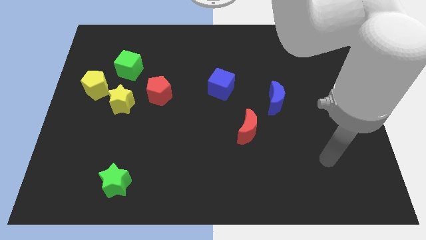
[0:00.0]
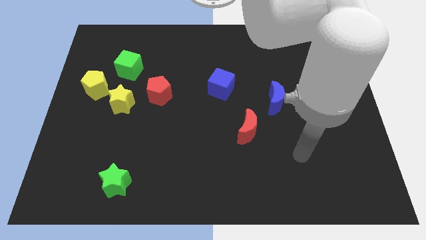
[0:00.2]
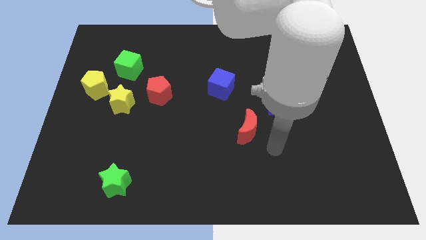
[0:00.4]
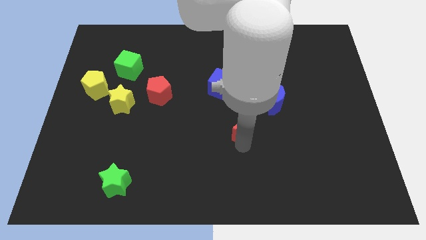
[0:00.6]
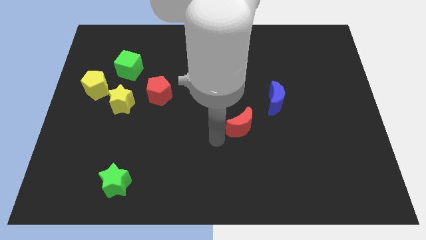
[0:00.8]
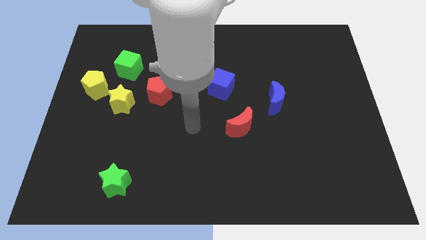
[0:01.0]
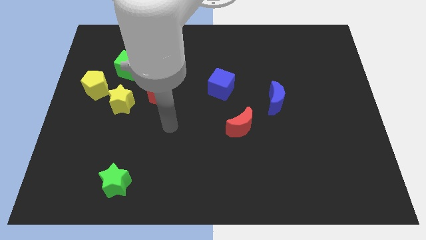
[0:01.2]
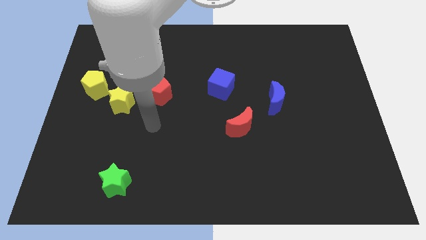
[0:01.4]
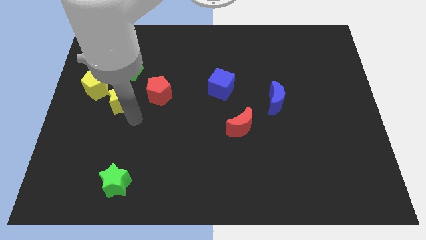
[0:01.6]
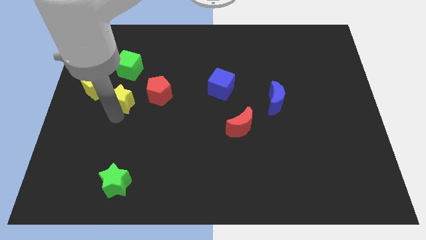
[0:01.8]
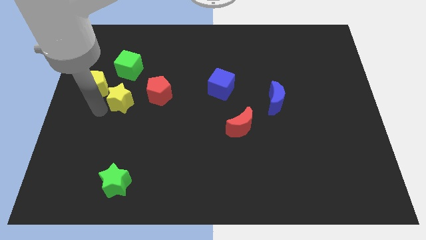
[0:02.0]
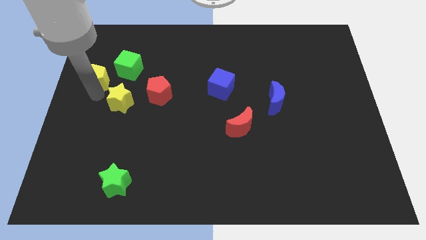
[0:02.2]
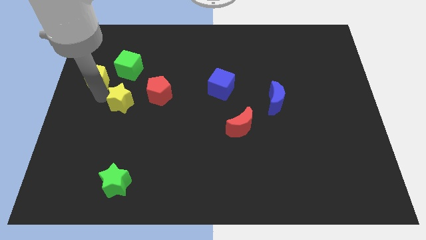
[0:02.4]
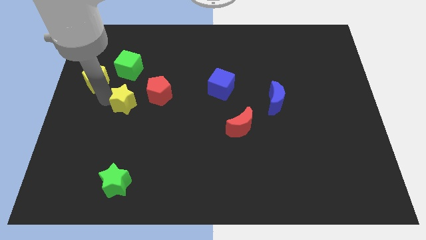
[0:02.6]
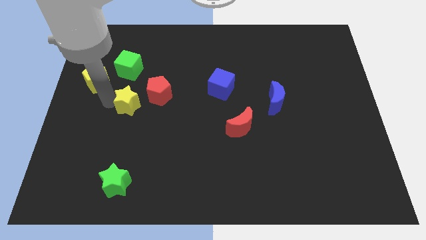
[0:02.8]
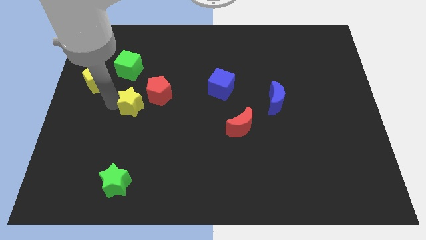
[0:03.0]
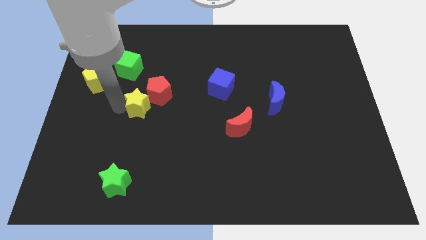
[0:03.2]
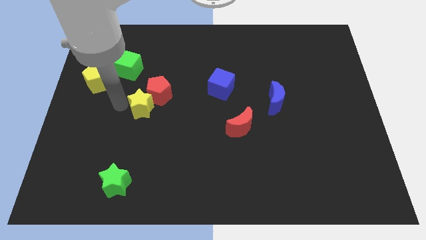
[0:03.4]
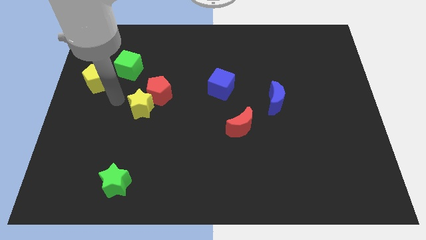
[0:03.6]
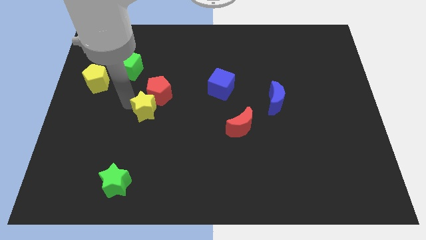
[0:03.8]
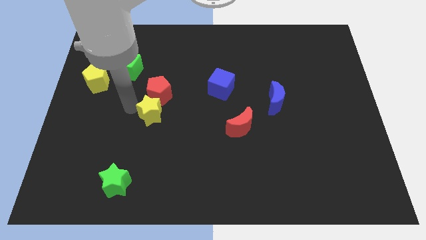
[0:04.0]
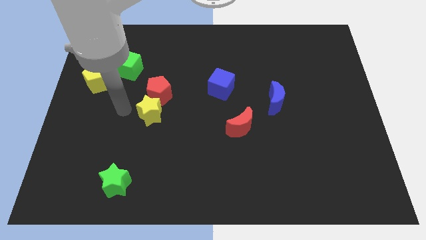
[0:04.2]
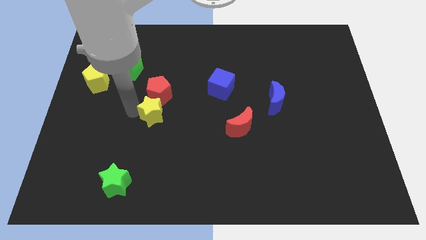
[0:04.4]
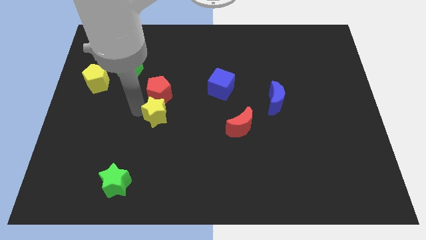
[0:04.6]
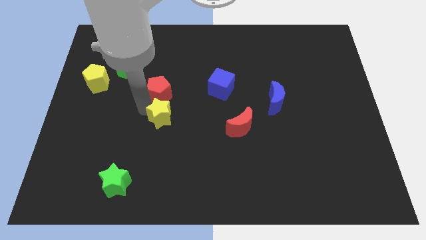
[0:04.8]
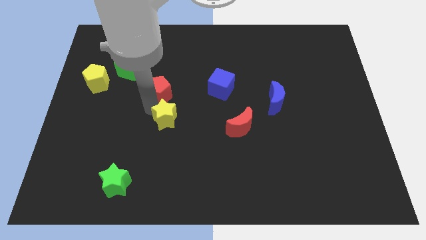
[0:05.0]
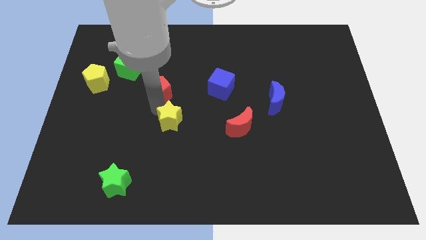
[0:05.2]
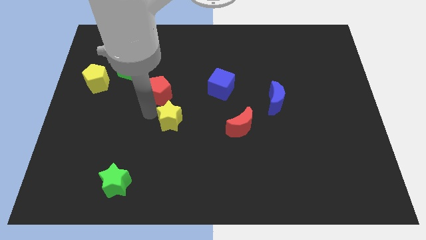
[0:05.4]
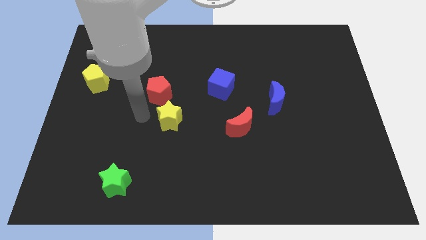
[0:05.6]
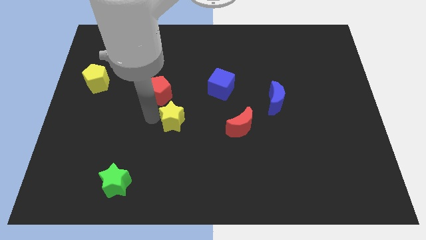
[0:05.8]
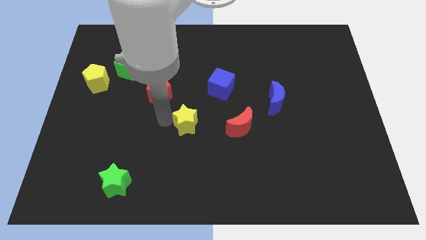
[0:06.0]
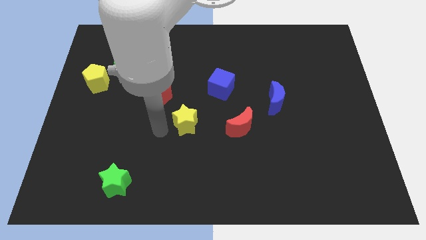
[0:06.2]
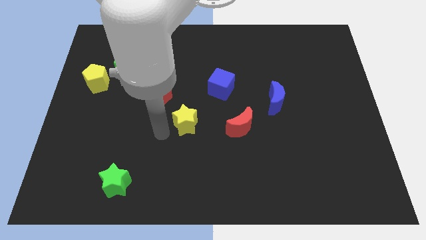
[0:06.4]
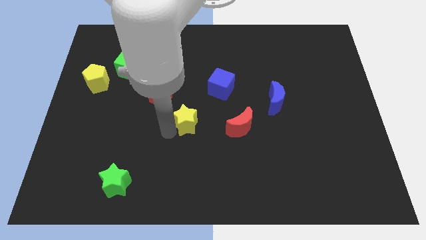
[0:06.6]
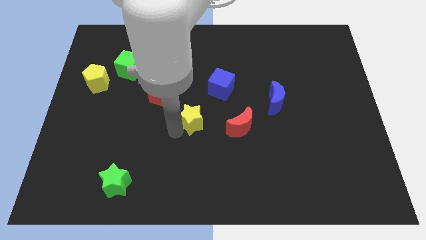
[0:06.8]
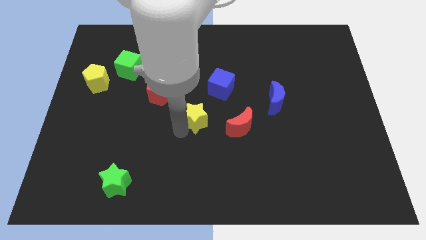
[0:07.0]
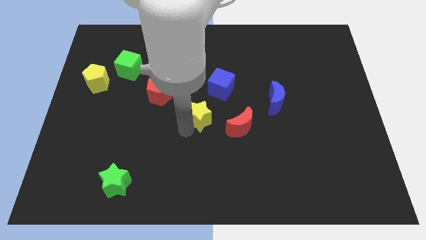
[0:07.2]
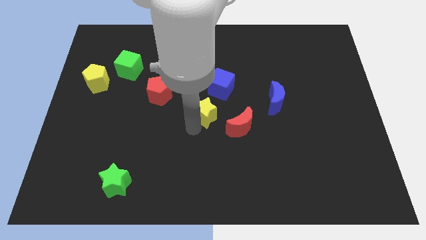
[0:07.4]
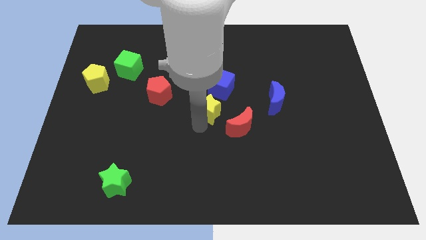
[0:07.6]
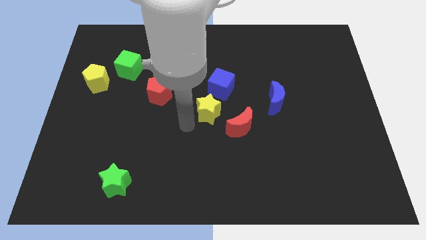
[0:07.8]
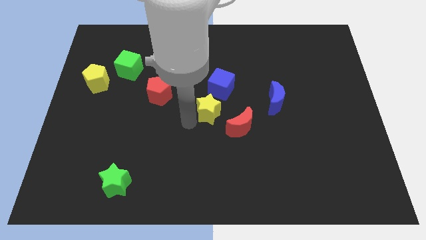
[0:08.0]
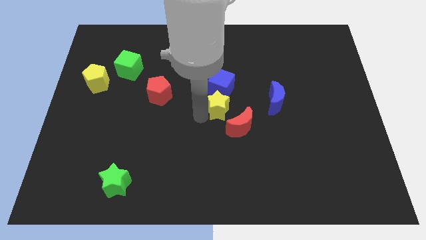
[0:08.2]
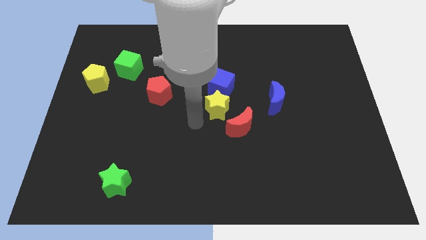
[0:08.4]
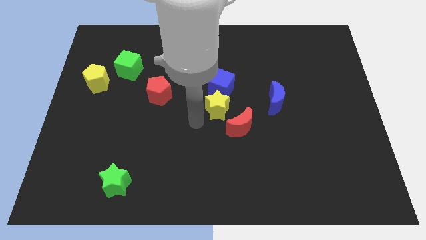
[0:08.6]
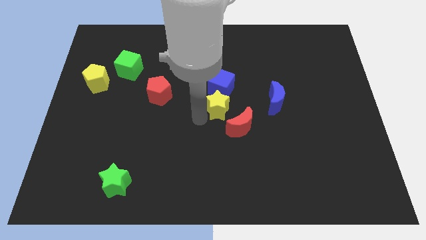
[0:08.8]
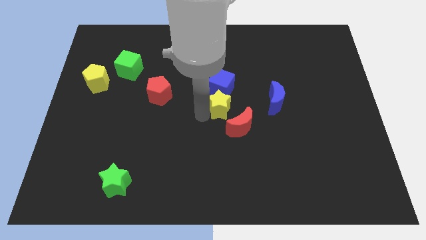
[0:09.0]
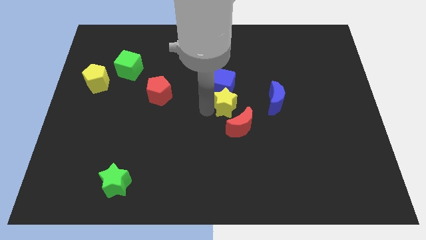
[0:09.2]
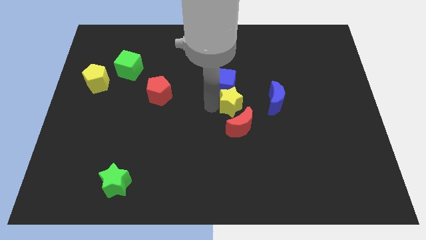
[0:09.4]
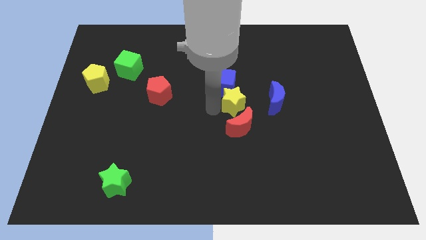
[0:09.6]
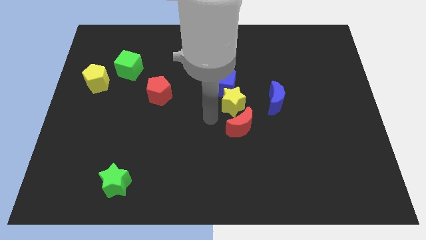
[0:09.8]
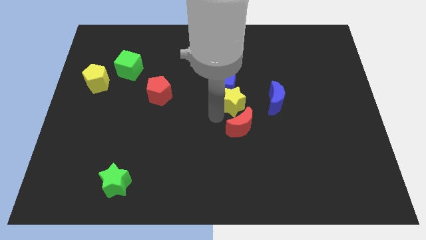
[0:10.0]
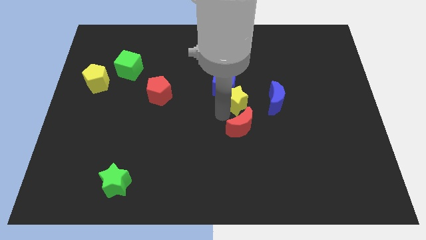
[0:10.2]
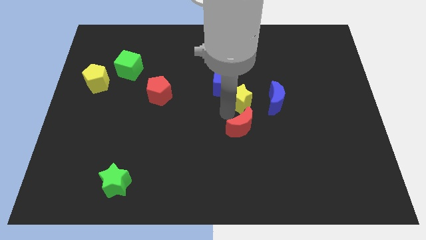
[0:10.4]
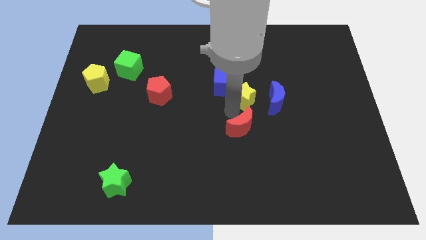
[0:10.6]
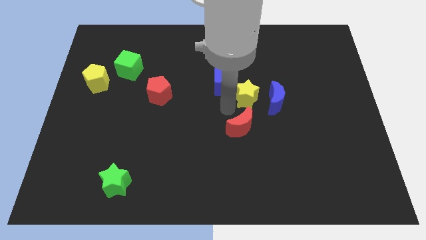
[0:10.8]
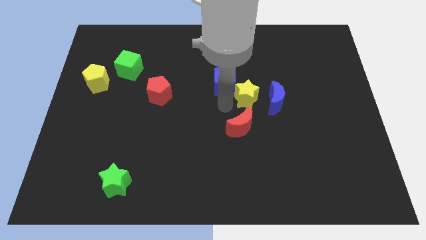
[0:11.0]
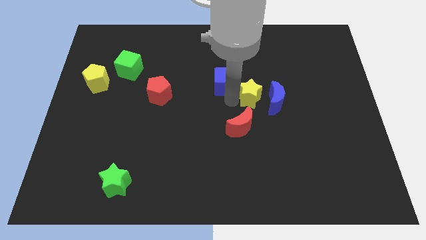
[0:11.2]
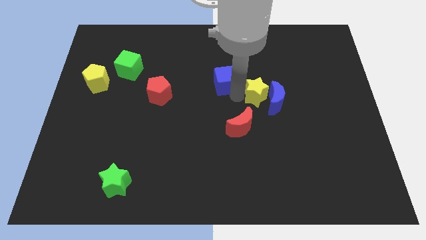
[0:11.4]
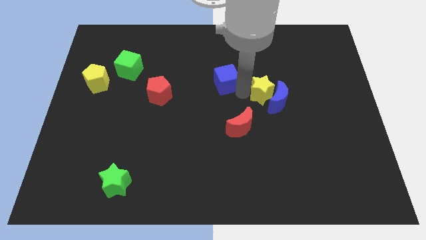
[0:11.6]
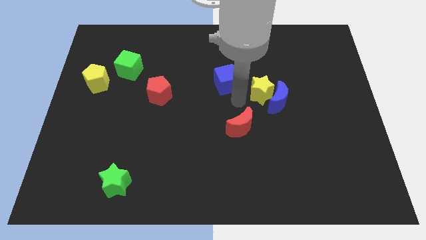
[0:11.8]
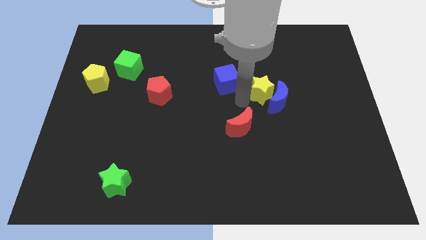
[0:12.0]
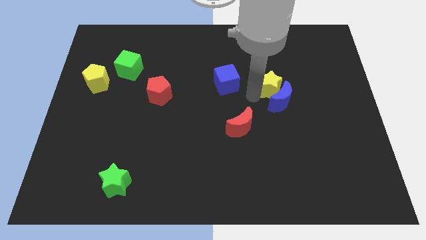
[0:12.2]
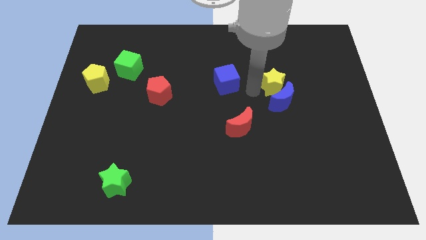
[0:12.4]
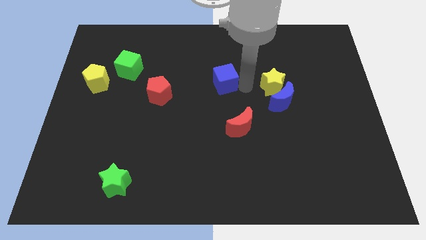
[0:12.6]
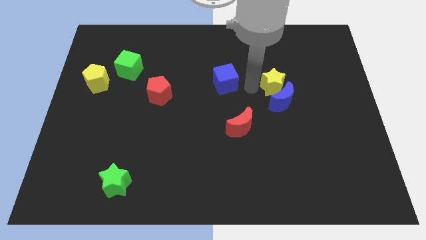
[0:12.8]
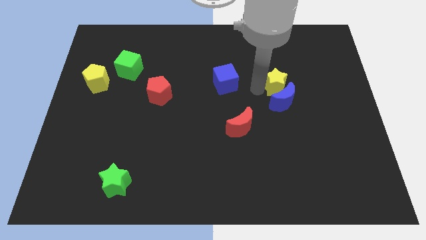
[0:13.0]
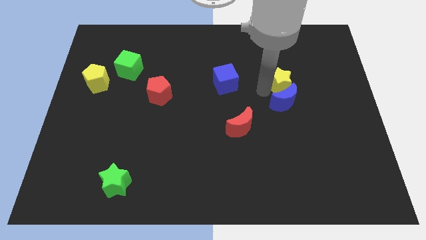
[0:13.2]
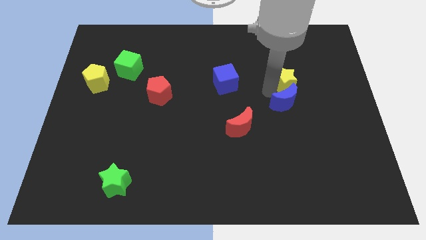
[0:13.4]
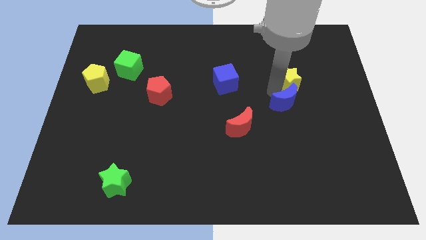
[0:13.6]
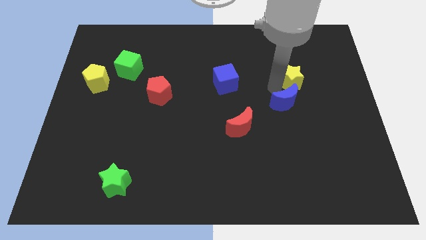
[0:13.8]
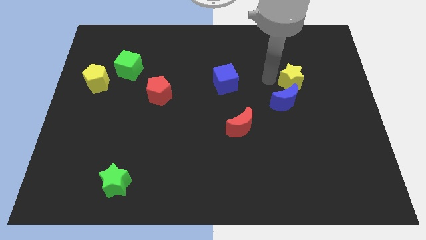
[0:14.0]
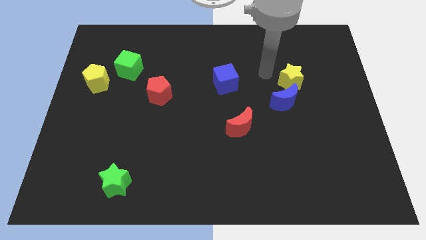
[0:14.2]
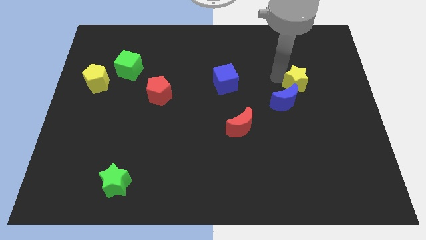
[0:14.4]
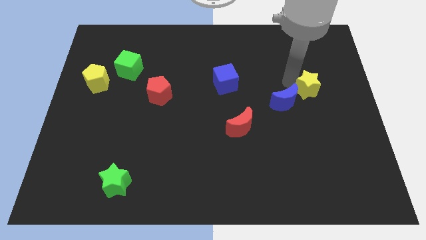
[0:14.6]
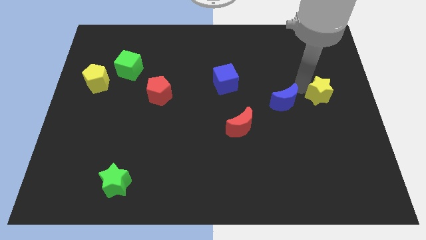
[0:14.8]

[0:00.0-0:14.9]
push the yellow star to the center right
